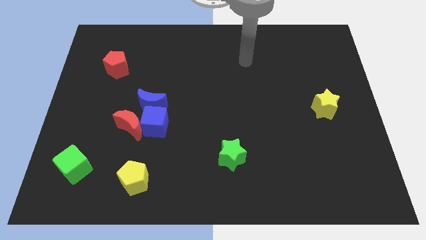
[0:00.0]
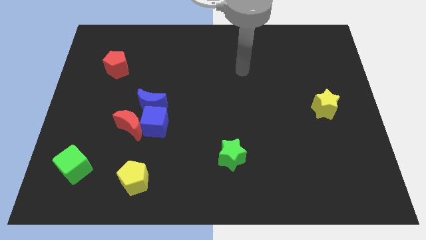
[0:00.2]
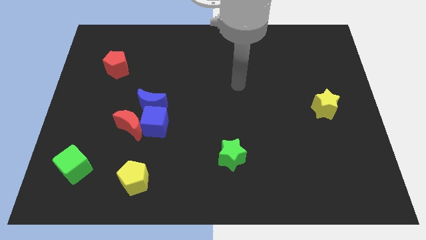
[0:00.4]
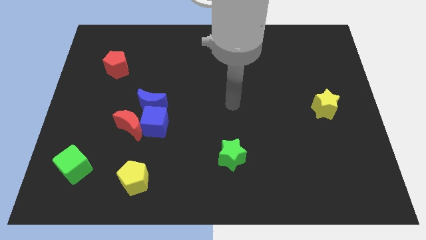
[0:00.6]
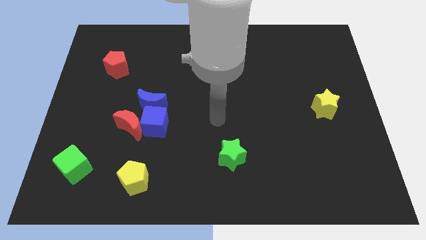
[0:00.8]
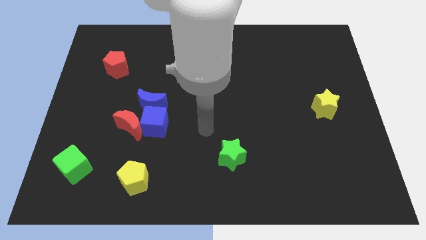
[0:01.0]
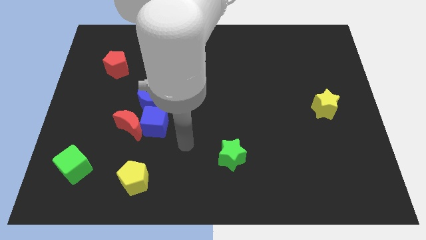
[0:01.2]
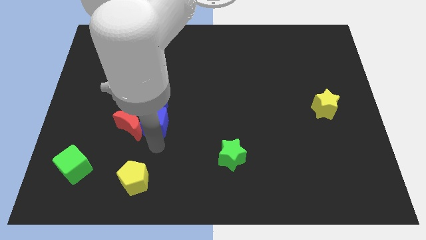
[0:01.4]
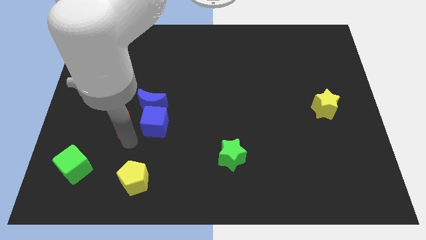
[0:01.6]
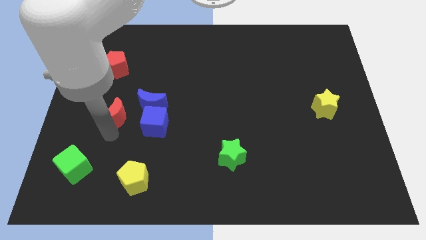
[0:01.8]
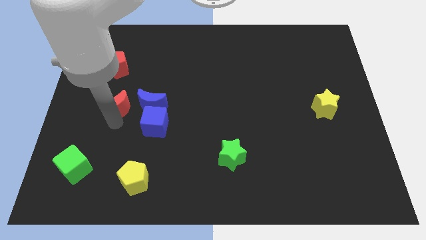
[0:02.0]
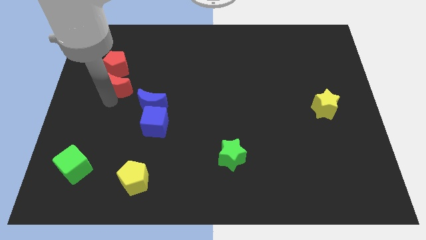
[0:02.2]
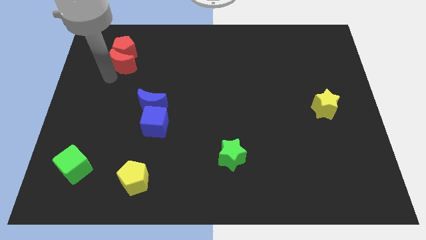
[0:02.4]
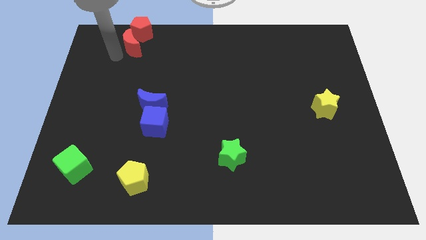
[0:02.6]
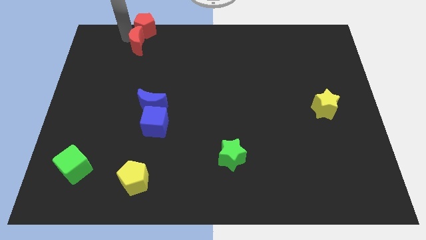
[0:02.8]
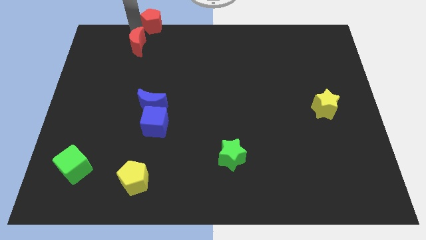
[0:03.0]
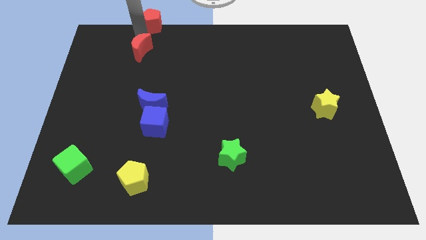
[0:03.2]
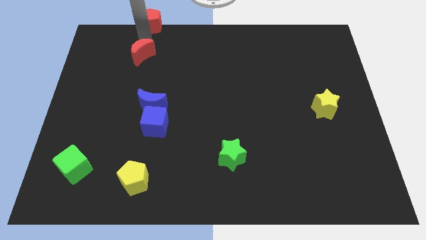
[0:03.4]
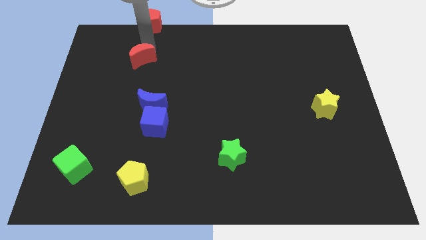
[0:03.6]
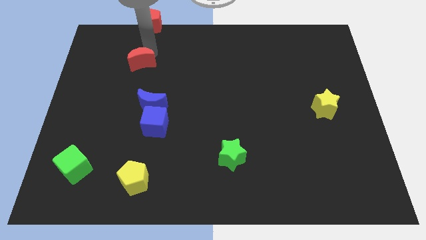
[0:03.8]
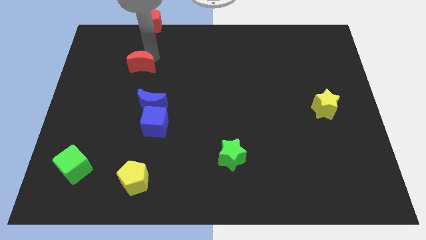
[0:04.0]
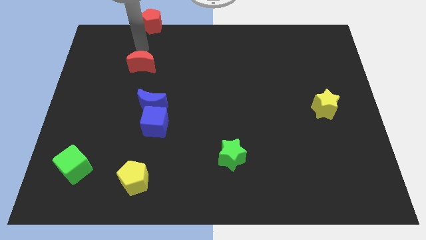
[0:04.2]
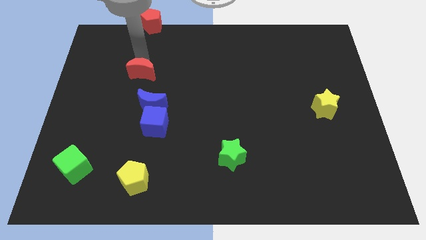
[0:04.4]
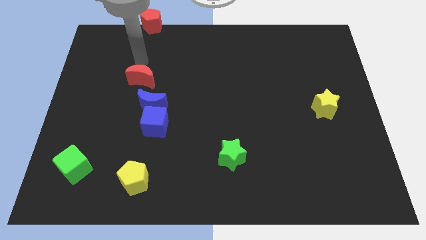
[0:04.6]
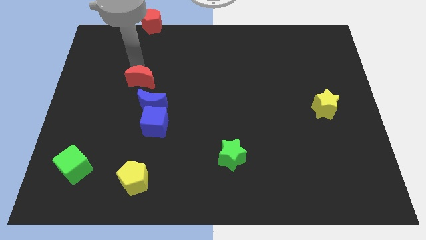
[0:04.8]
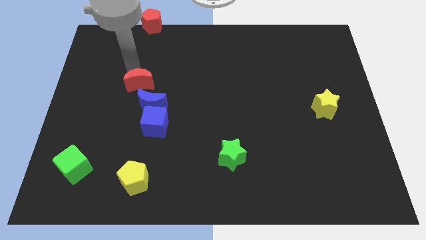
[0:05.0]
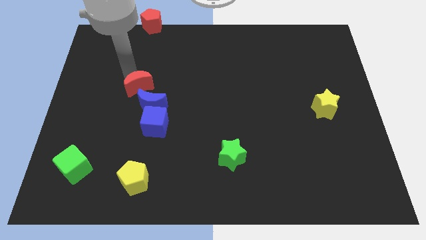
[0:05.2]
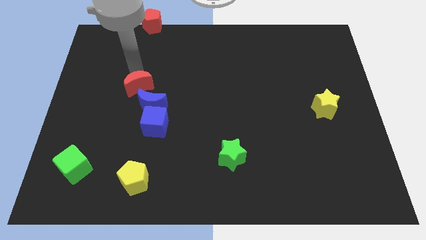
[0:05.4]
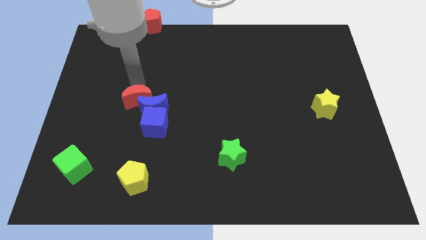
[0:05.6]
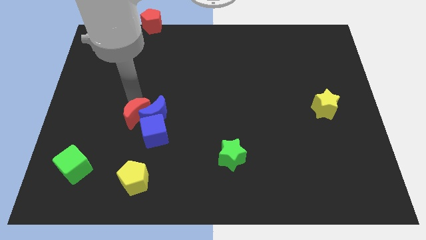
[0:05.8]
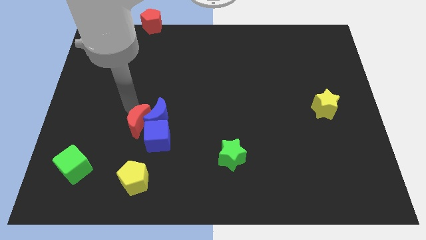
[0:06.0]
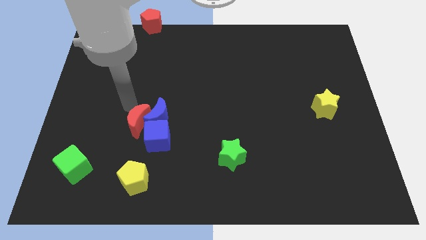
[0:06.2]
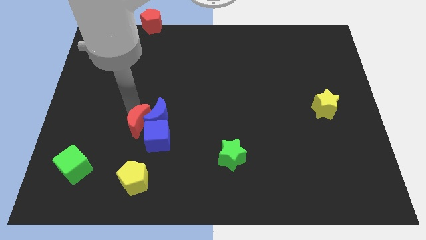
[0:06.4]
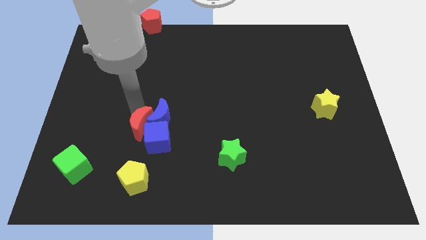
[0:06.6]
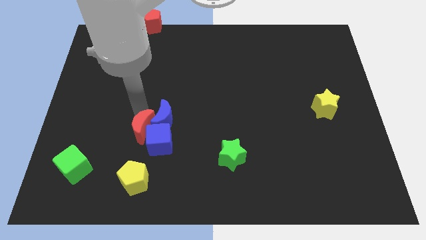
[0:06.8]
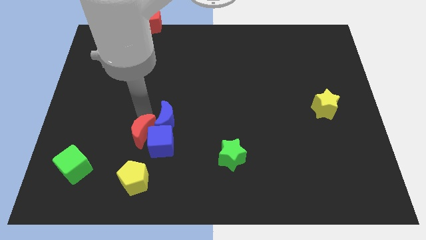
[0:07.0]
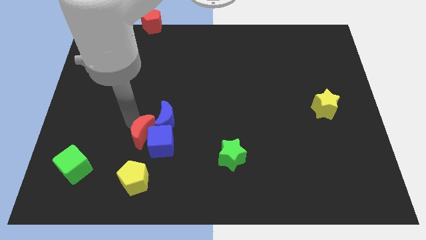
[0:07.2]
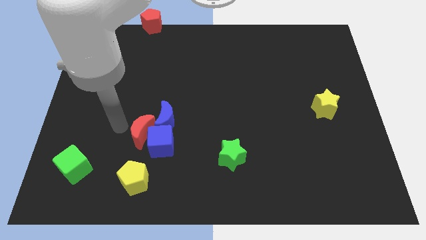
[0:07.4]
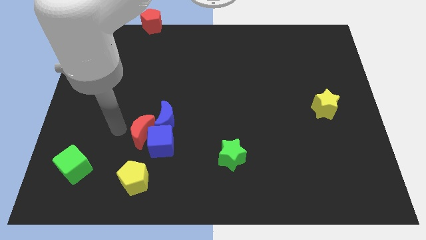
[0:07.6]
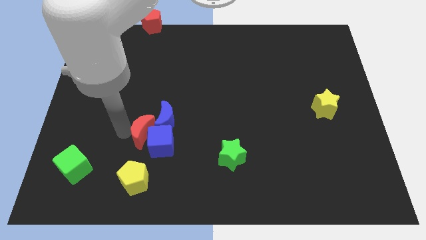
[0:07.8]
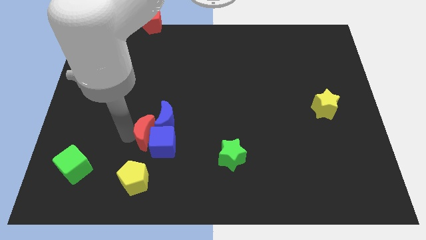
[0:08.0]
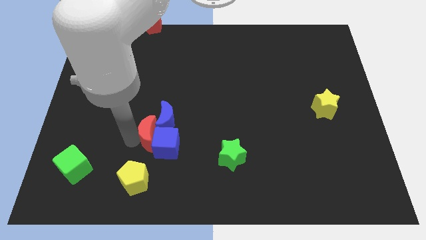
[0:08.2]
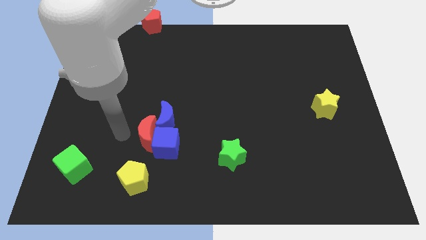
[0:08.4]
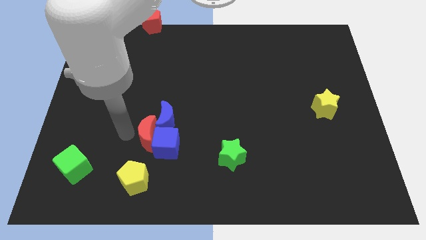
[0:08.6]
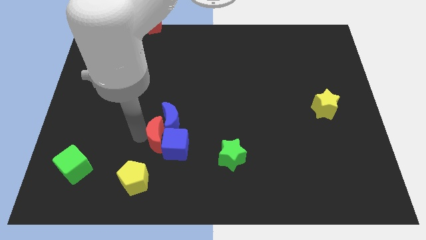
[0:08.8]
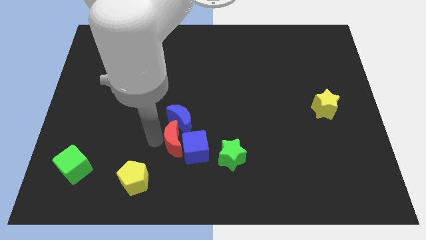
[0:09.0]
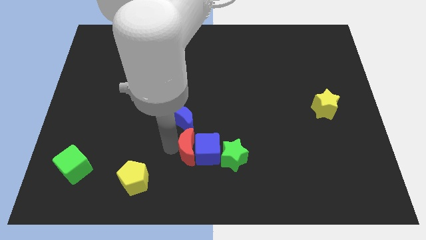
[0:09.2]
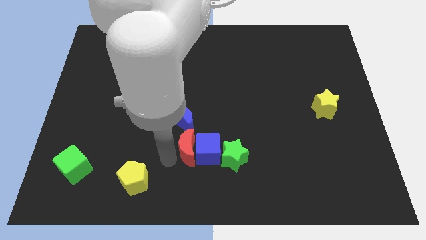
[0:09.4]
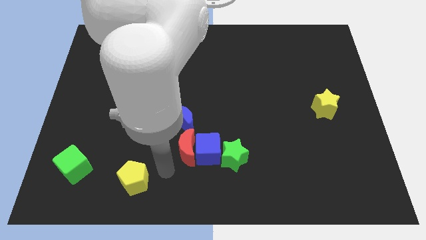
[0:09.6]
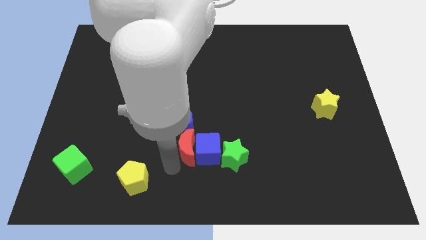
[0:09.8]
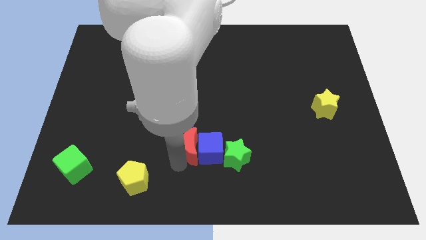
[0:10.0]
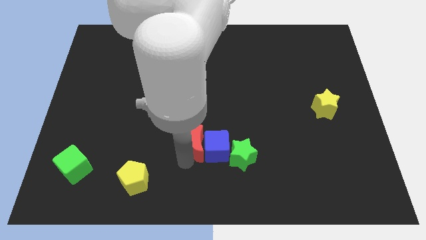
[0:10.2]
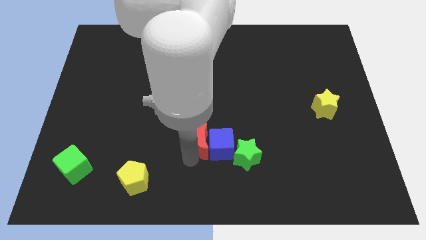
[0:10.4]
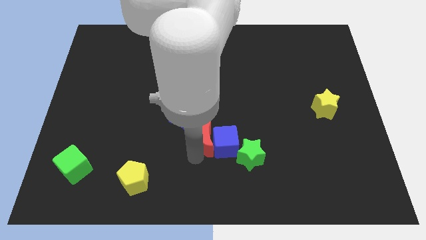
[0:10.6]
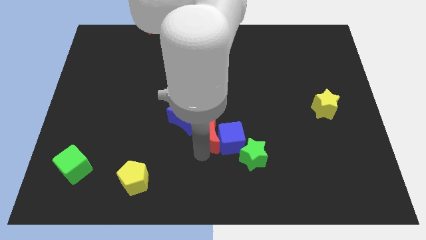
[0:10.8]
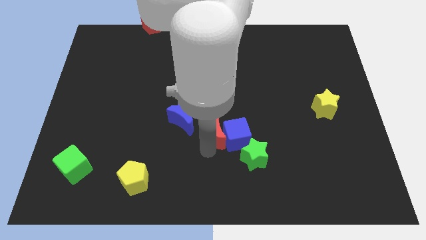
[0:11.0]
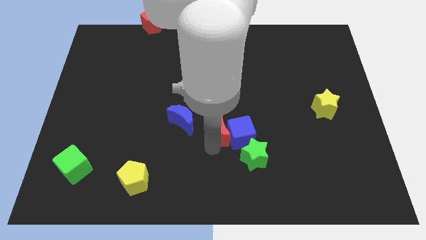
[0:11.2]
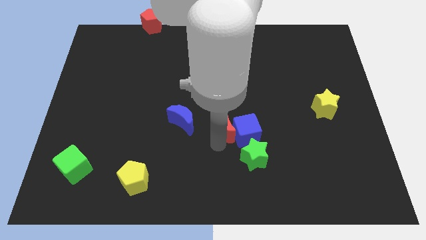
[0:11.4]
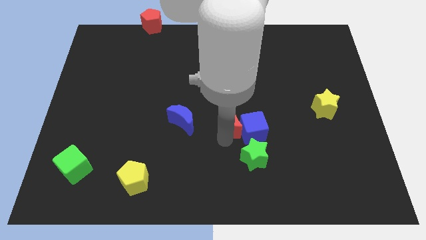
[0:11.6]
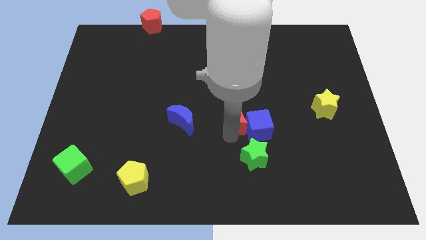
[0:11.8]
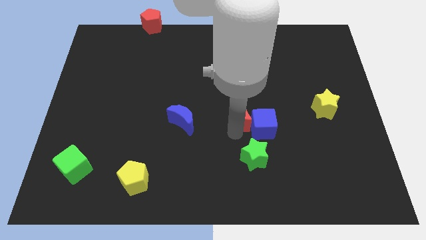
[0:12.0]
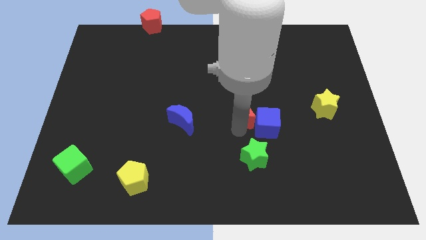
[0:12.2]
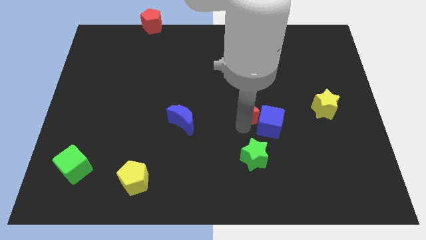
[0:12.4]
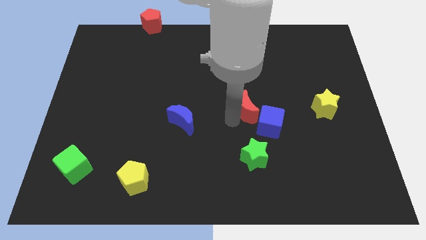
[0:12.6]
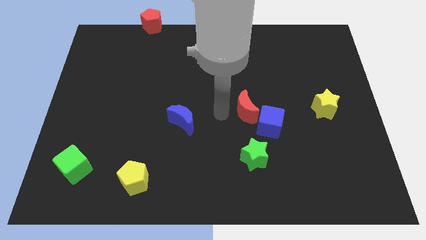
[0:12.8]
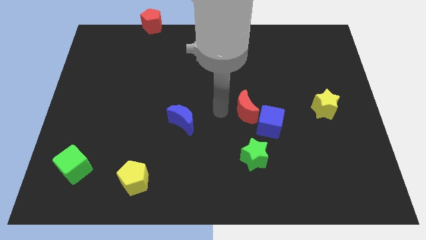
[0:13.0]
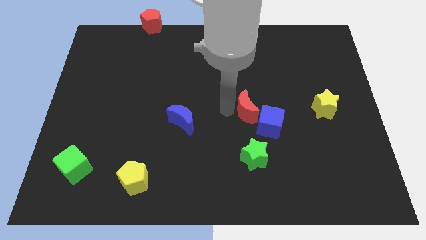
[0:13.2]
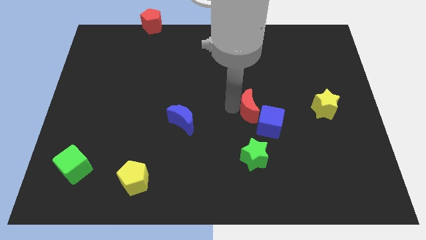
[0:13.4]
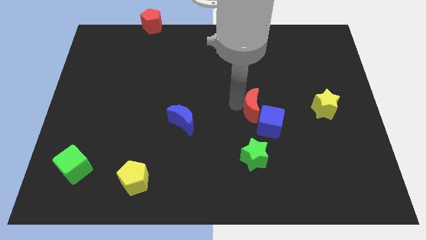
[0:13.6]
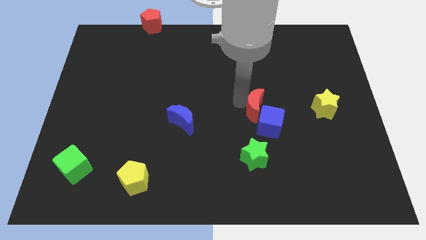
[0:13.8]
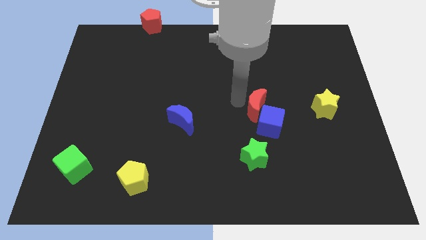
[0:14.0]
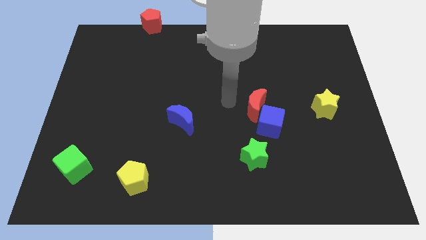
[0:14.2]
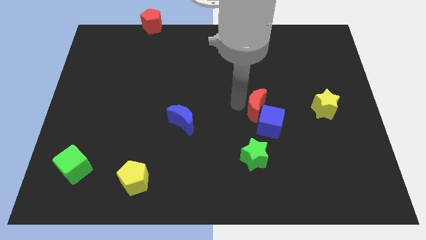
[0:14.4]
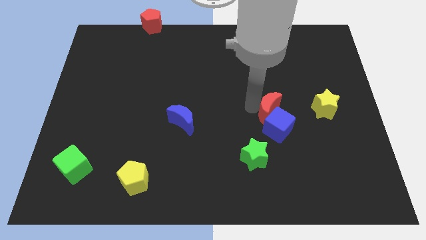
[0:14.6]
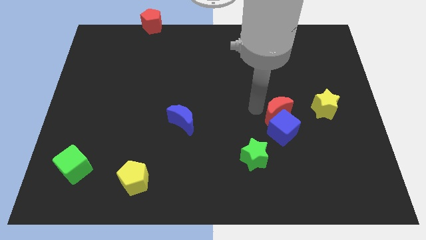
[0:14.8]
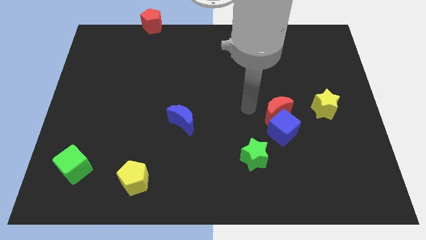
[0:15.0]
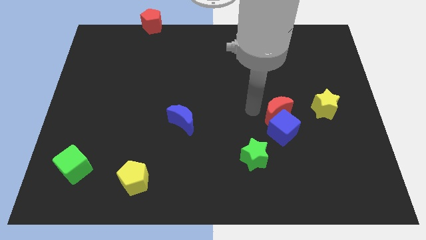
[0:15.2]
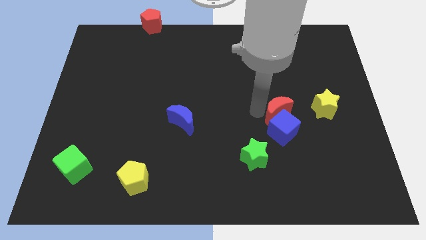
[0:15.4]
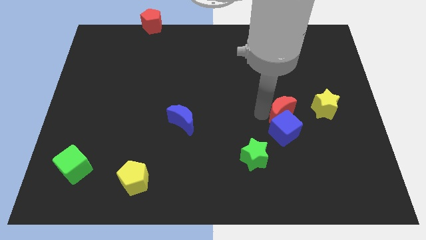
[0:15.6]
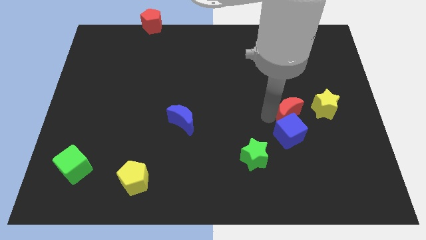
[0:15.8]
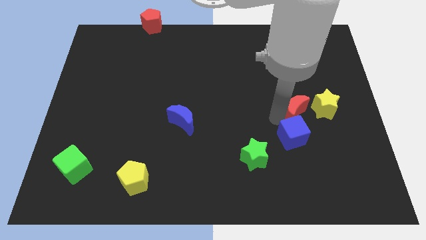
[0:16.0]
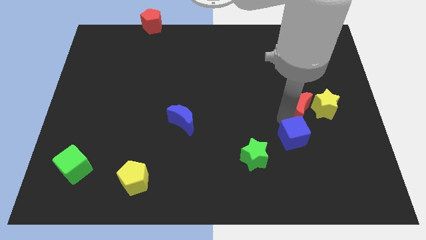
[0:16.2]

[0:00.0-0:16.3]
put the red moon next to the yellow star
